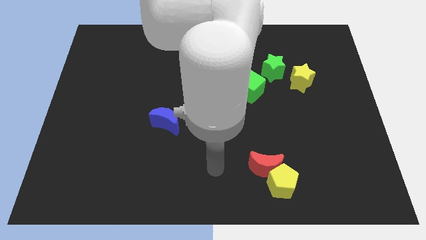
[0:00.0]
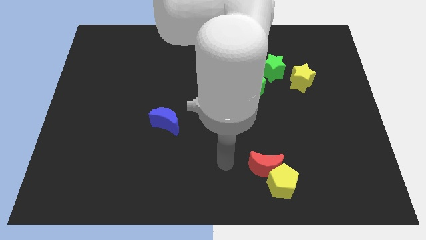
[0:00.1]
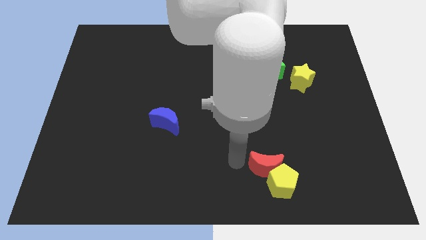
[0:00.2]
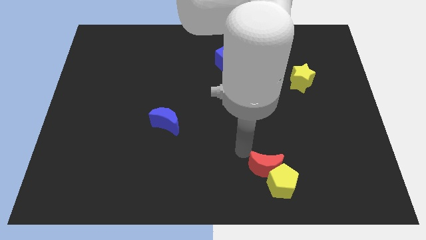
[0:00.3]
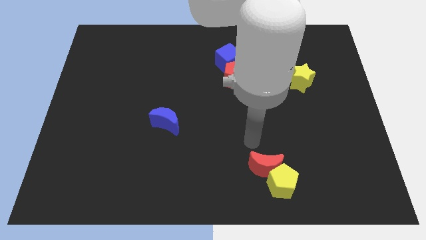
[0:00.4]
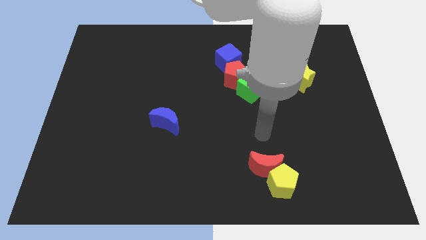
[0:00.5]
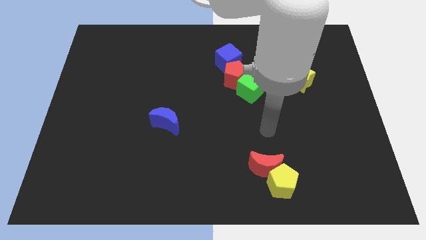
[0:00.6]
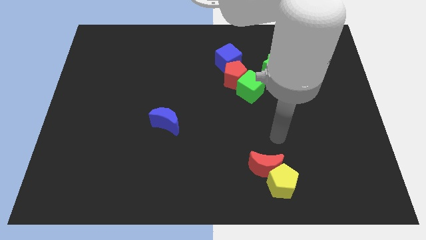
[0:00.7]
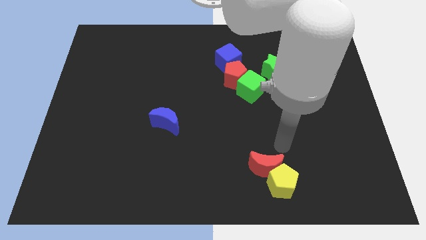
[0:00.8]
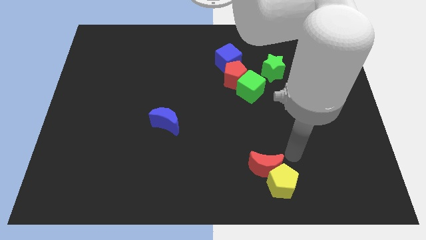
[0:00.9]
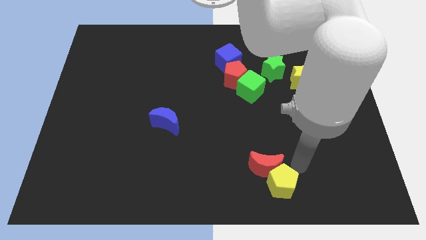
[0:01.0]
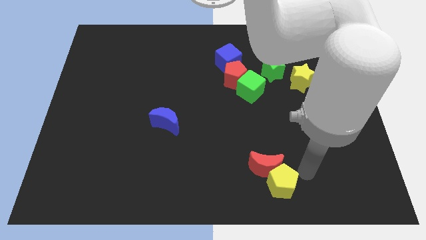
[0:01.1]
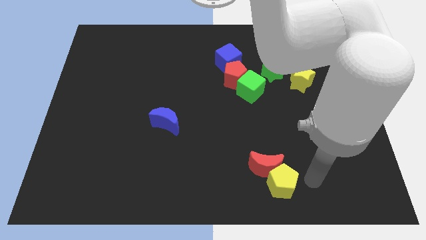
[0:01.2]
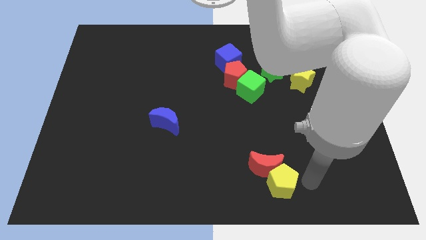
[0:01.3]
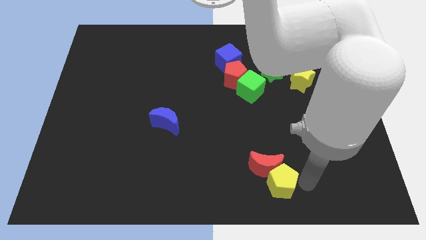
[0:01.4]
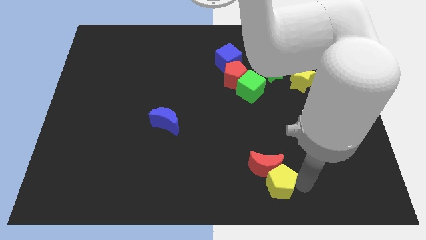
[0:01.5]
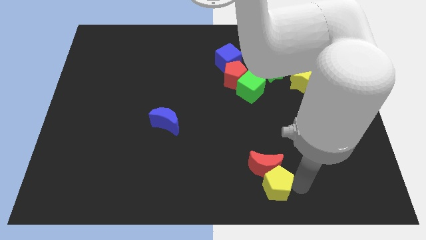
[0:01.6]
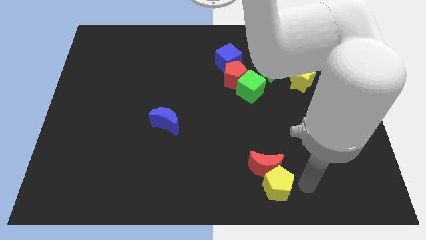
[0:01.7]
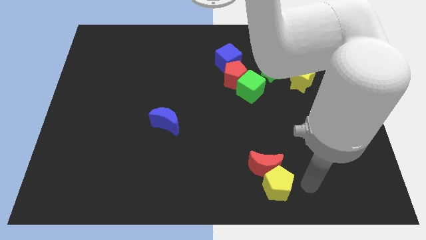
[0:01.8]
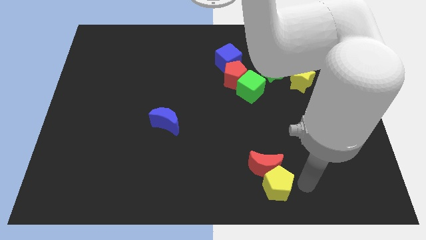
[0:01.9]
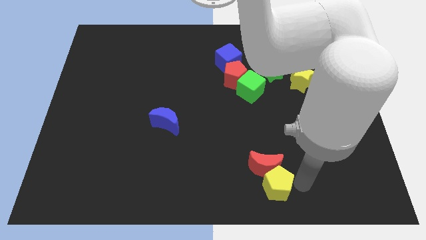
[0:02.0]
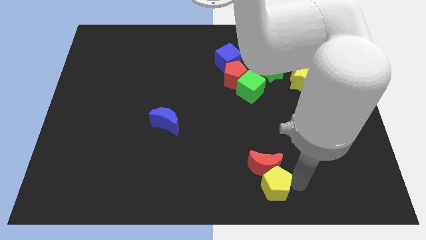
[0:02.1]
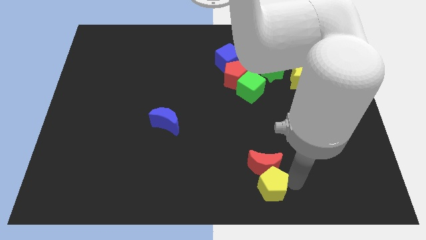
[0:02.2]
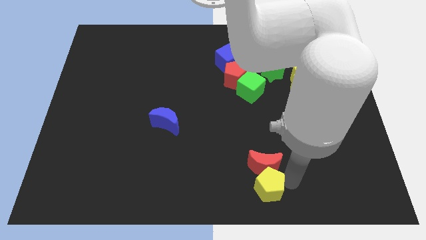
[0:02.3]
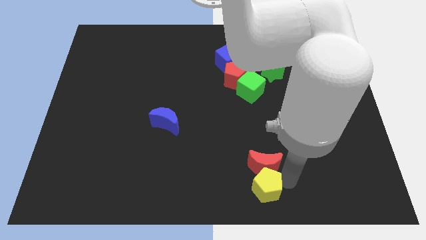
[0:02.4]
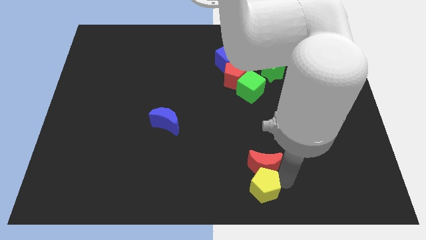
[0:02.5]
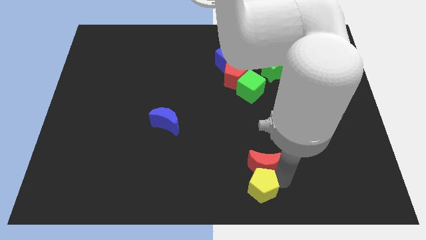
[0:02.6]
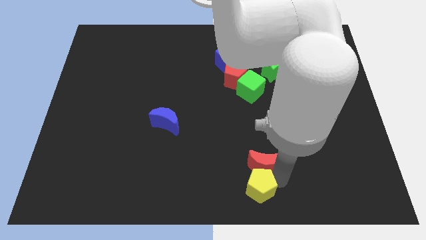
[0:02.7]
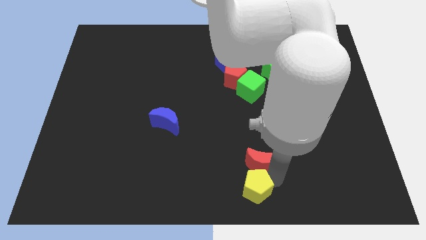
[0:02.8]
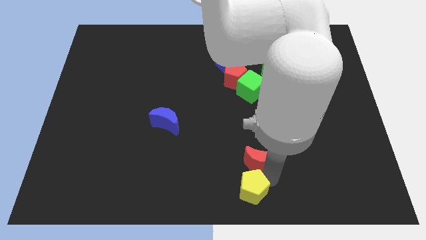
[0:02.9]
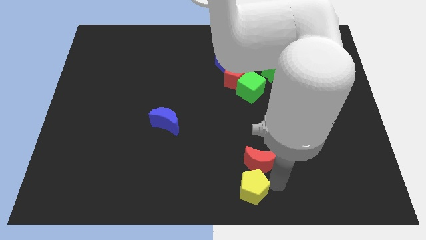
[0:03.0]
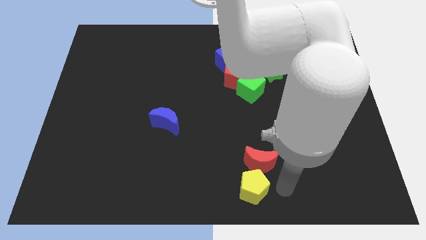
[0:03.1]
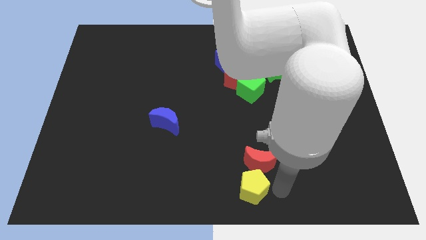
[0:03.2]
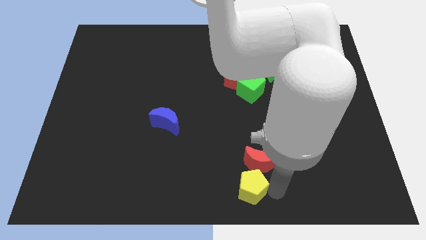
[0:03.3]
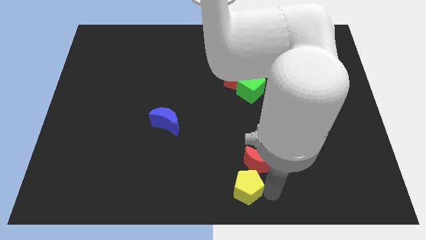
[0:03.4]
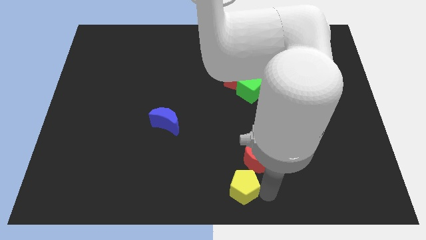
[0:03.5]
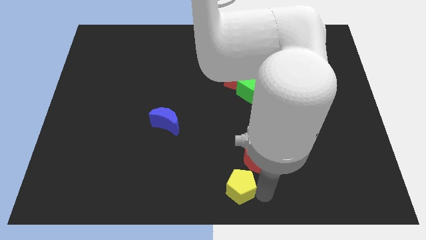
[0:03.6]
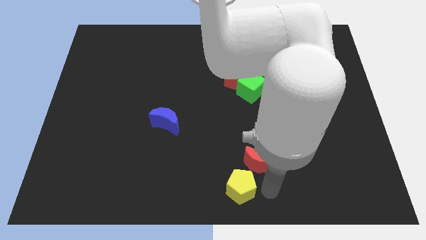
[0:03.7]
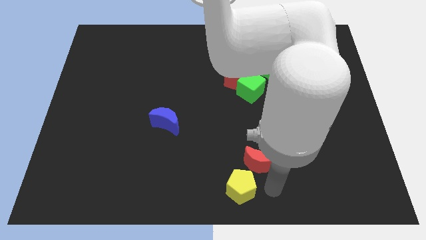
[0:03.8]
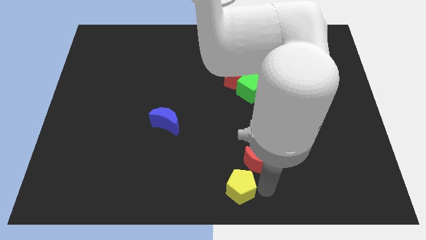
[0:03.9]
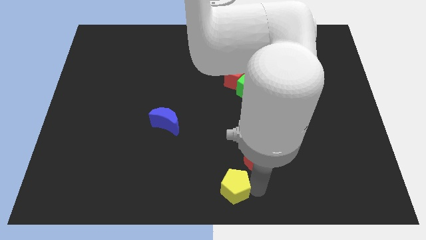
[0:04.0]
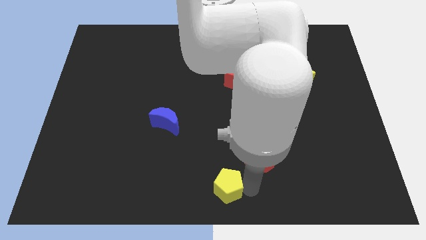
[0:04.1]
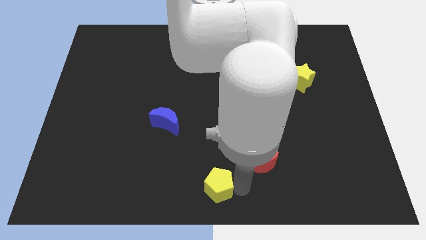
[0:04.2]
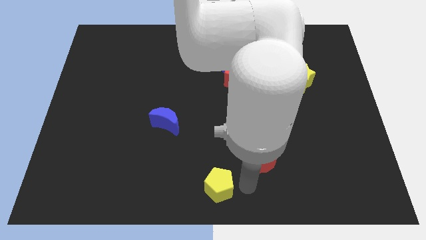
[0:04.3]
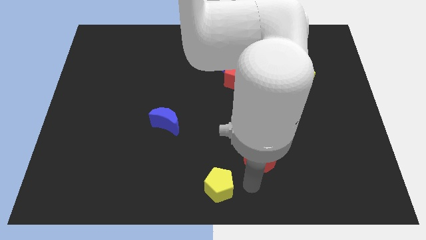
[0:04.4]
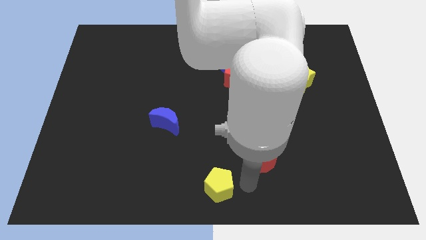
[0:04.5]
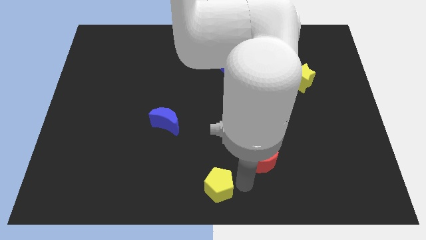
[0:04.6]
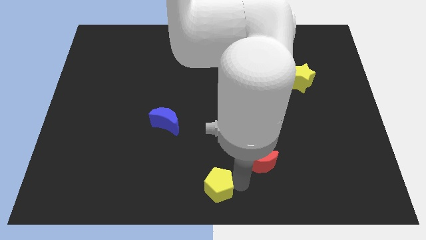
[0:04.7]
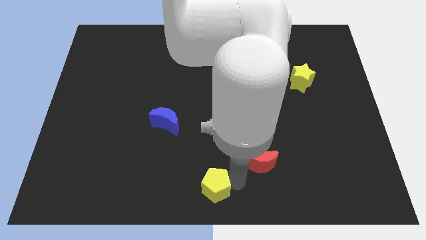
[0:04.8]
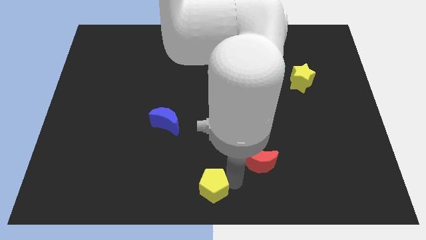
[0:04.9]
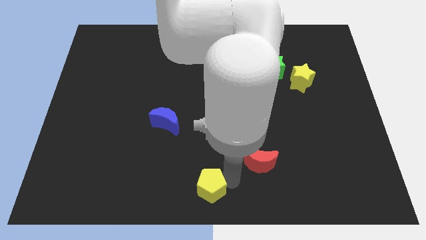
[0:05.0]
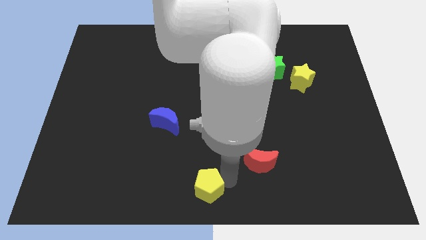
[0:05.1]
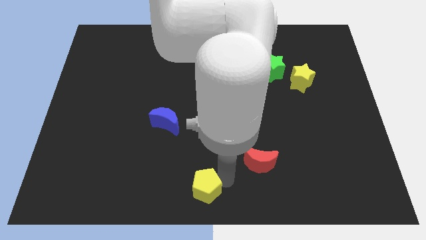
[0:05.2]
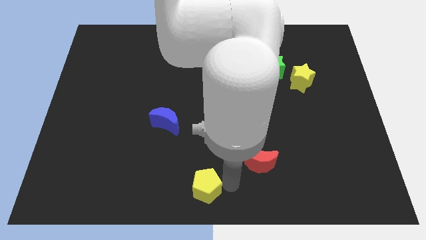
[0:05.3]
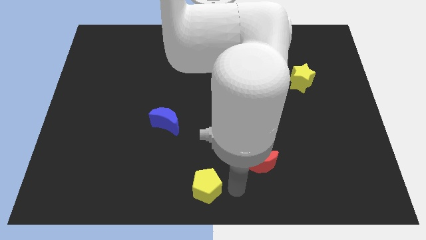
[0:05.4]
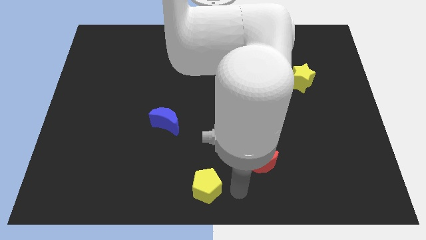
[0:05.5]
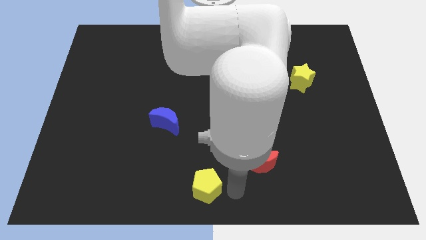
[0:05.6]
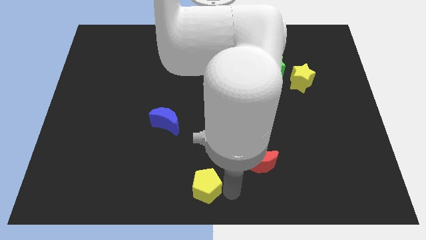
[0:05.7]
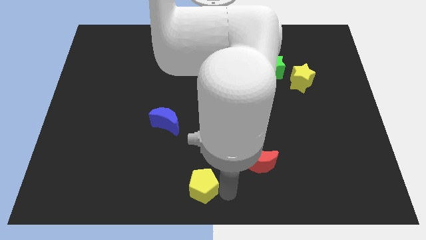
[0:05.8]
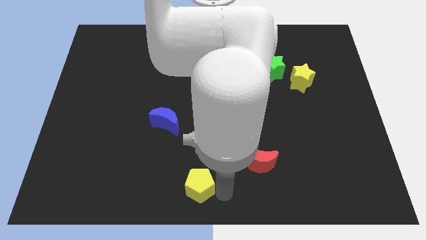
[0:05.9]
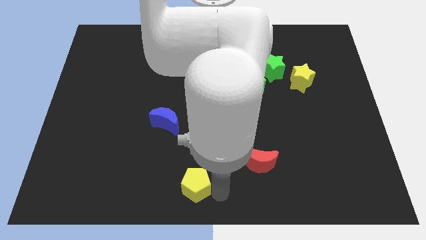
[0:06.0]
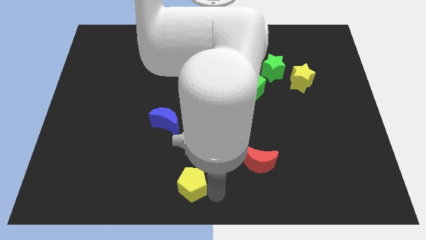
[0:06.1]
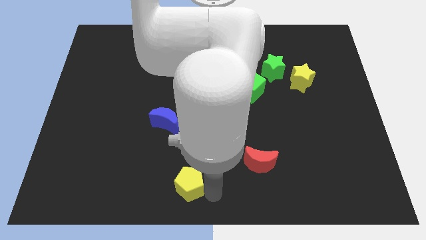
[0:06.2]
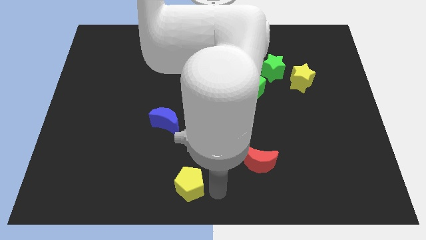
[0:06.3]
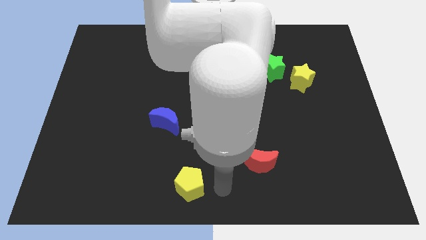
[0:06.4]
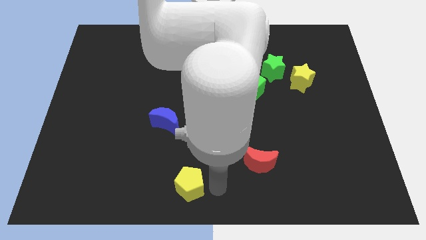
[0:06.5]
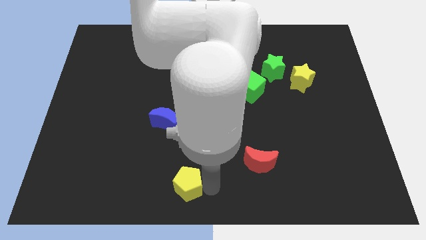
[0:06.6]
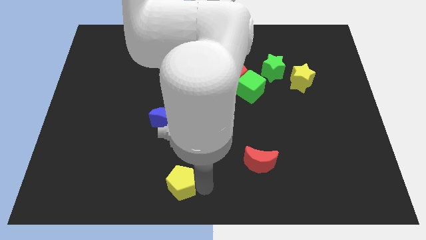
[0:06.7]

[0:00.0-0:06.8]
move the yellow pentagon to the left

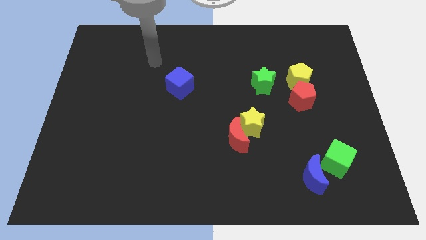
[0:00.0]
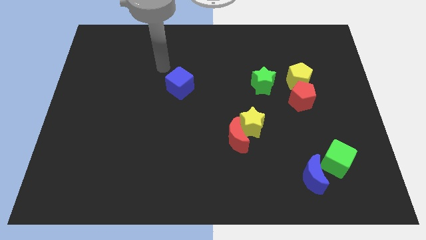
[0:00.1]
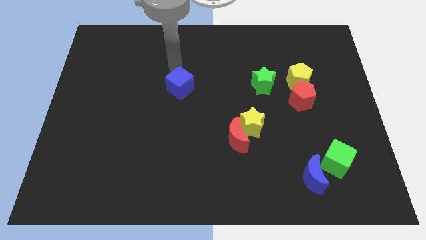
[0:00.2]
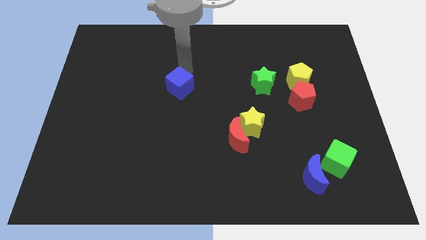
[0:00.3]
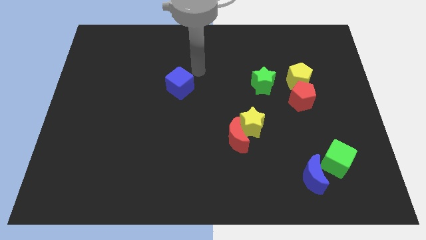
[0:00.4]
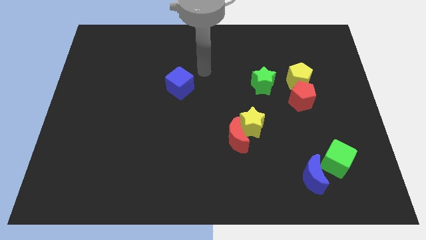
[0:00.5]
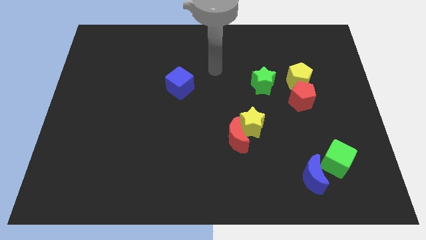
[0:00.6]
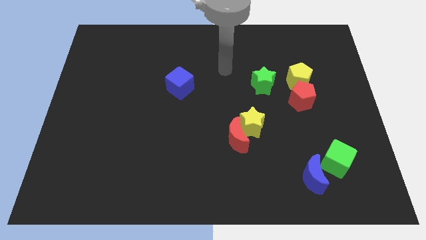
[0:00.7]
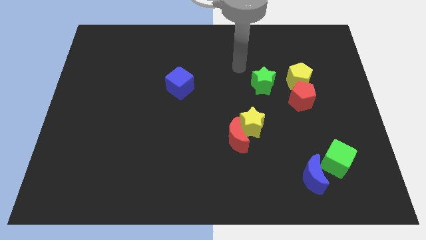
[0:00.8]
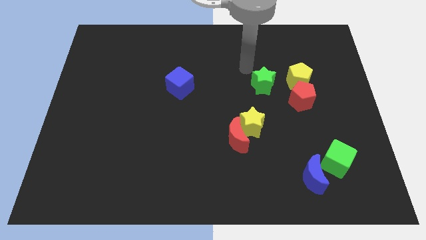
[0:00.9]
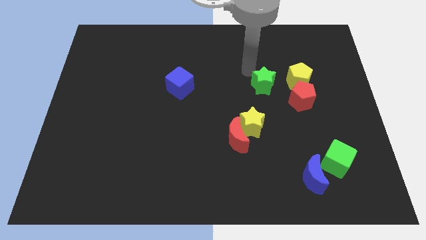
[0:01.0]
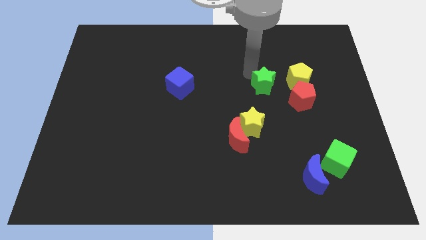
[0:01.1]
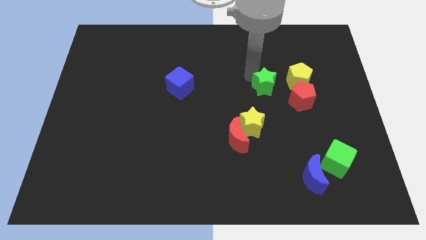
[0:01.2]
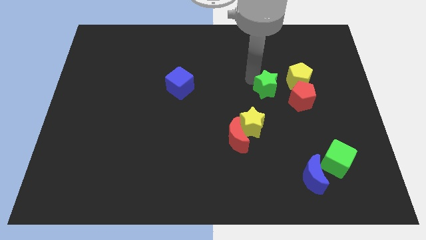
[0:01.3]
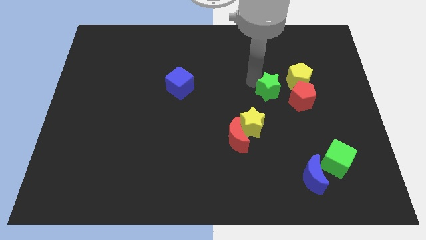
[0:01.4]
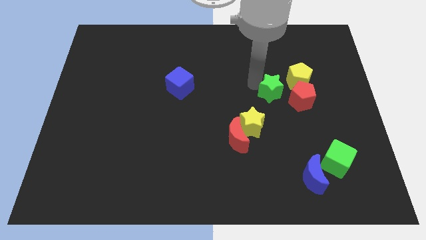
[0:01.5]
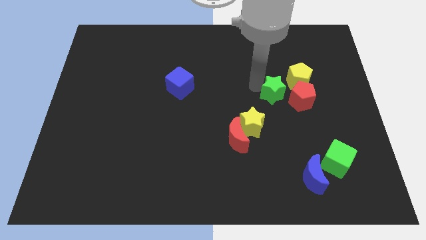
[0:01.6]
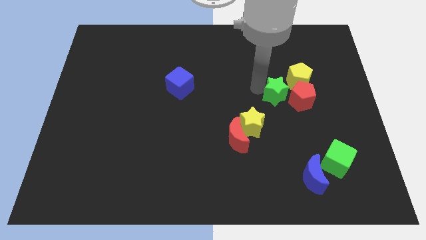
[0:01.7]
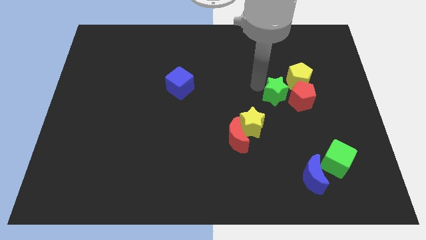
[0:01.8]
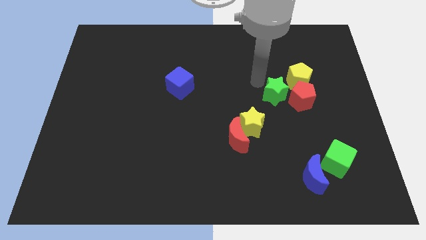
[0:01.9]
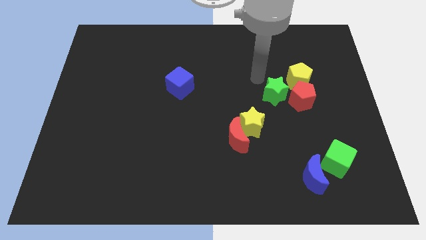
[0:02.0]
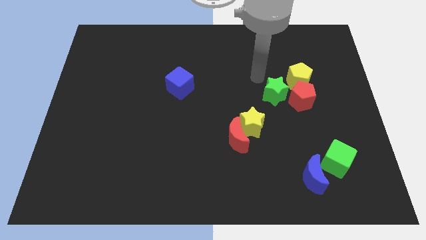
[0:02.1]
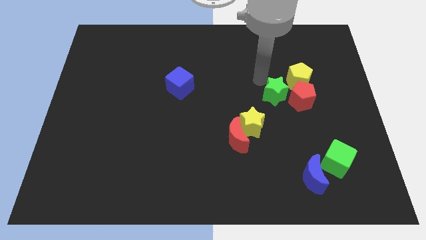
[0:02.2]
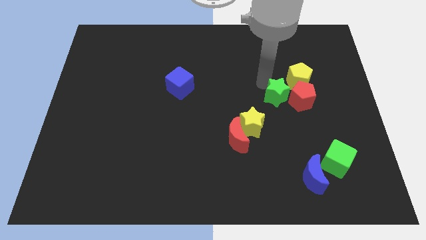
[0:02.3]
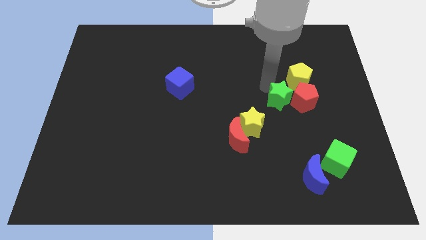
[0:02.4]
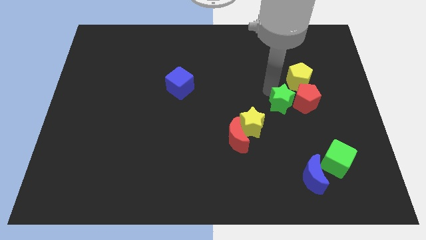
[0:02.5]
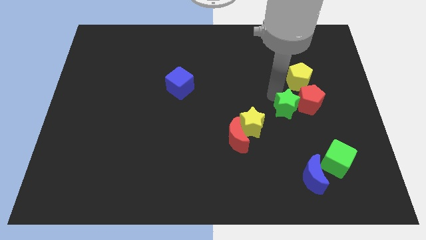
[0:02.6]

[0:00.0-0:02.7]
push the green star somewhat down and right diagonally
